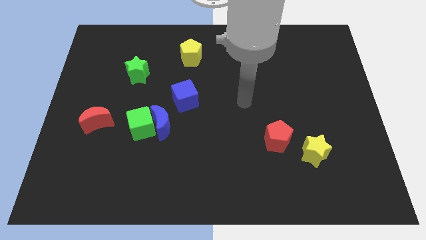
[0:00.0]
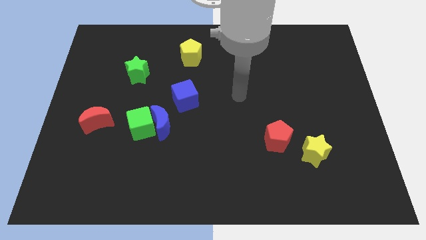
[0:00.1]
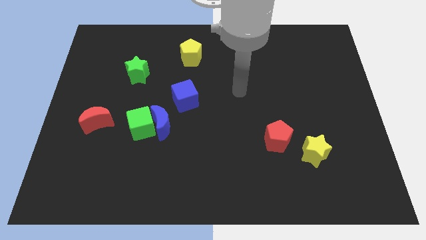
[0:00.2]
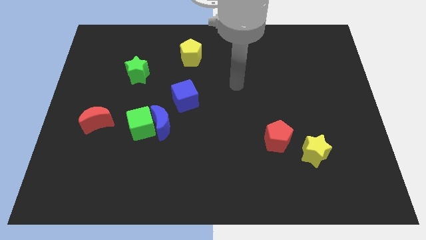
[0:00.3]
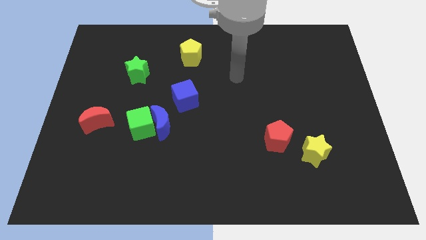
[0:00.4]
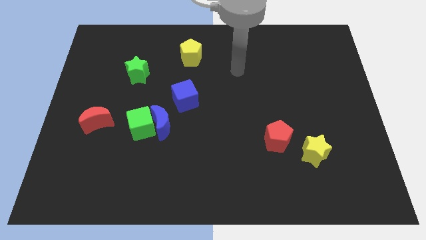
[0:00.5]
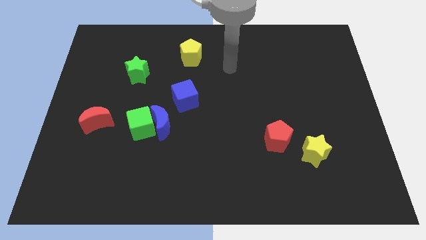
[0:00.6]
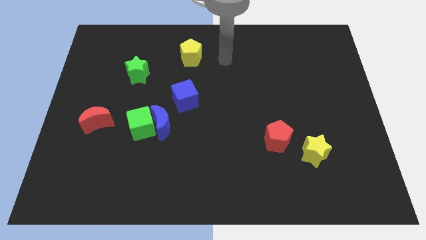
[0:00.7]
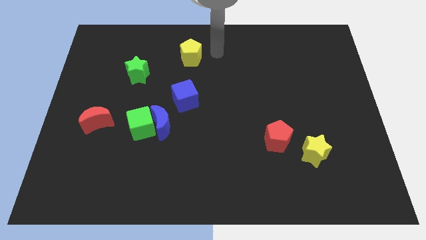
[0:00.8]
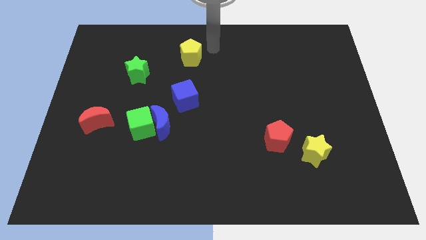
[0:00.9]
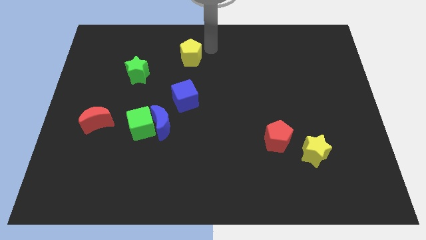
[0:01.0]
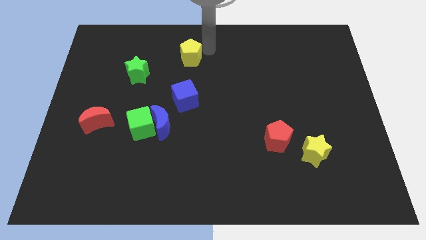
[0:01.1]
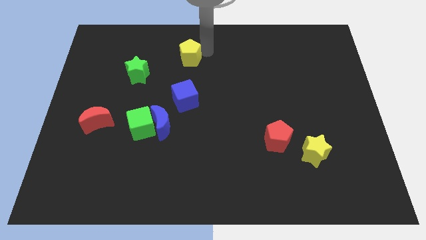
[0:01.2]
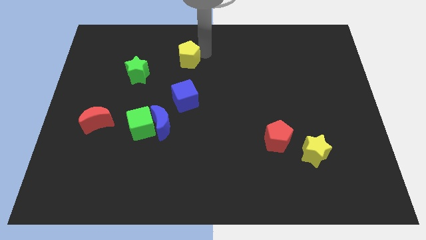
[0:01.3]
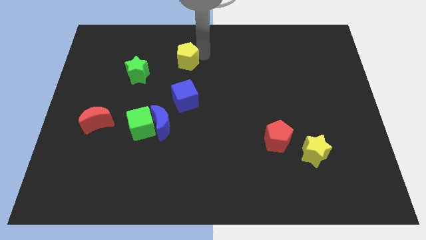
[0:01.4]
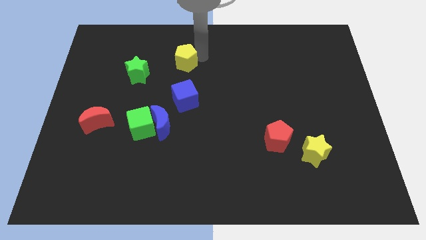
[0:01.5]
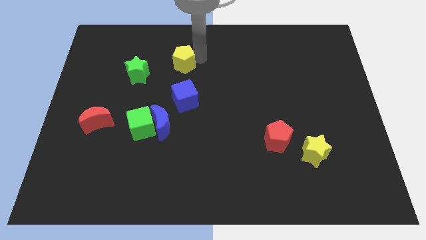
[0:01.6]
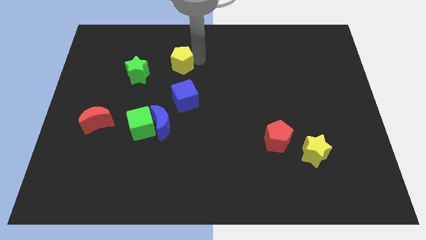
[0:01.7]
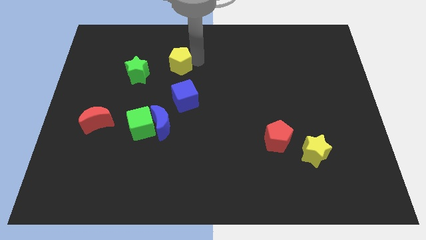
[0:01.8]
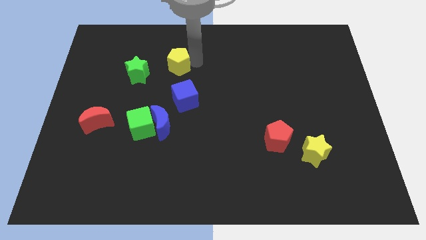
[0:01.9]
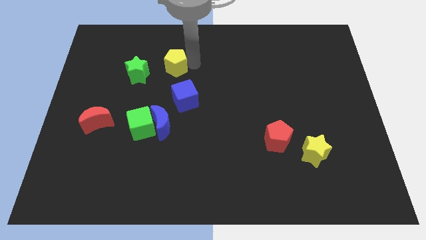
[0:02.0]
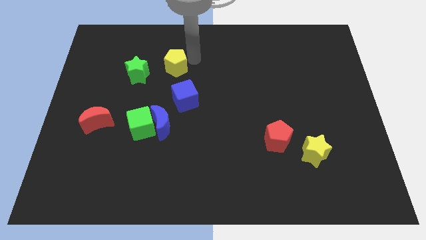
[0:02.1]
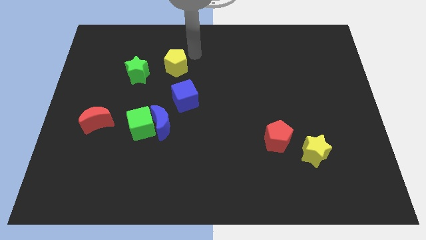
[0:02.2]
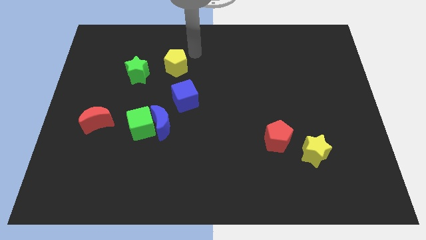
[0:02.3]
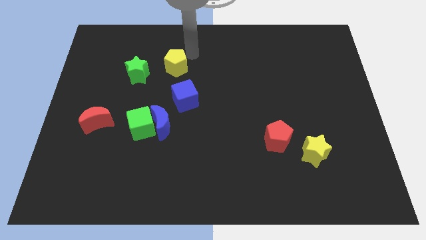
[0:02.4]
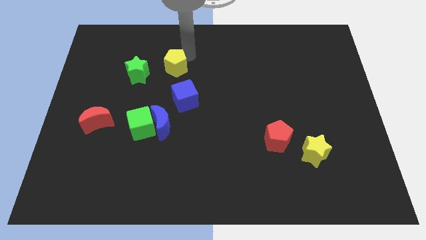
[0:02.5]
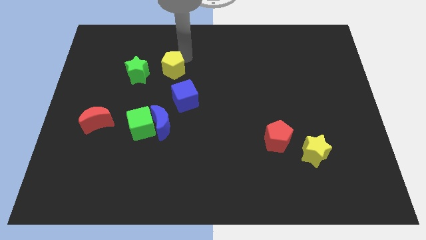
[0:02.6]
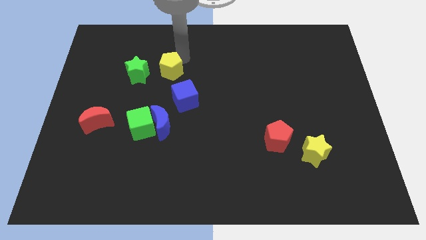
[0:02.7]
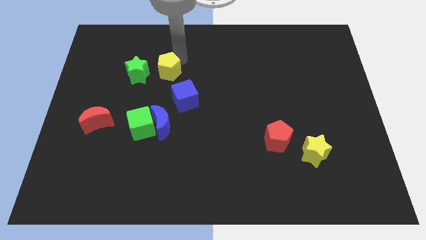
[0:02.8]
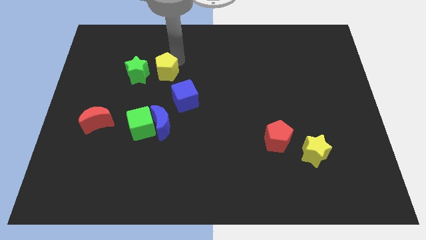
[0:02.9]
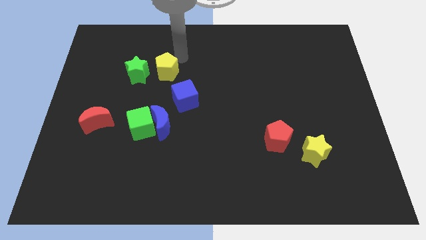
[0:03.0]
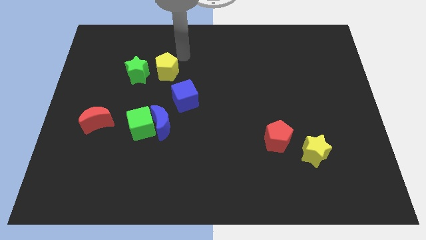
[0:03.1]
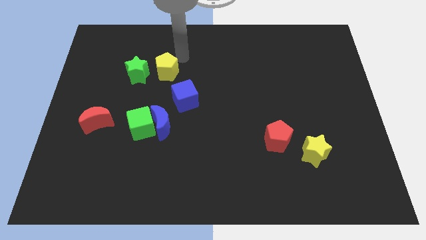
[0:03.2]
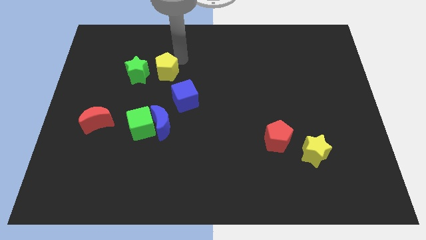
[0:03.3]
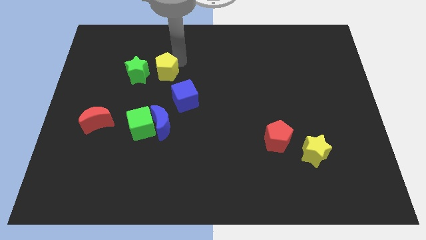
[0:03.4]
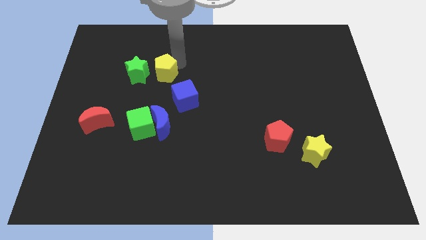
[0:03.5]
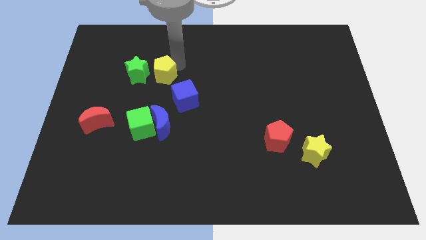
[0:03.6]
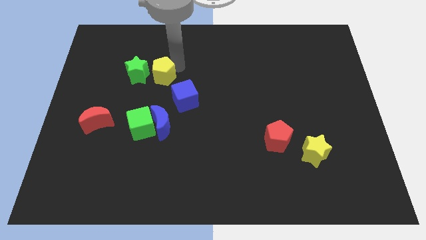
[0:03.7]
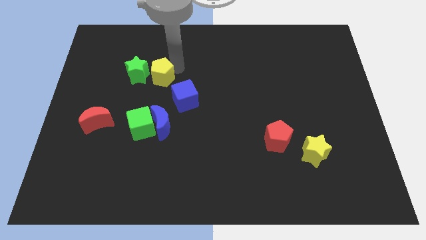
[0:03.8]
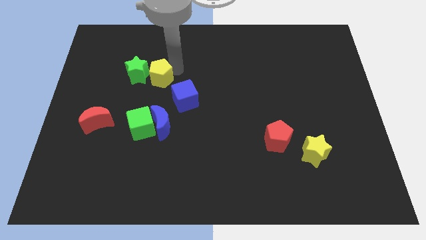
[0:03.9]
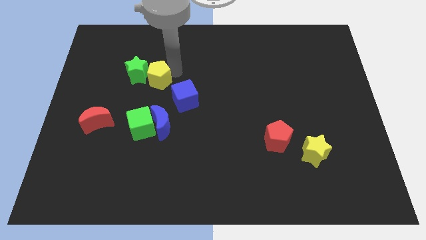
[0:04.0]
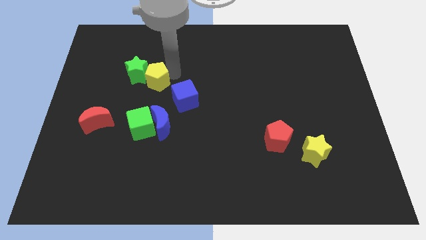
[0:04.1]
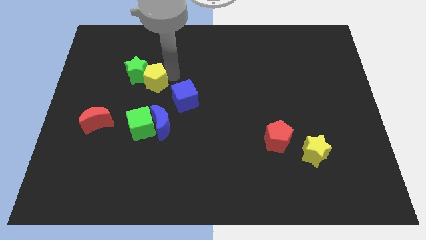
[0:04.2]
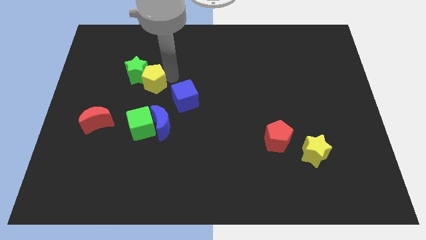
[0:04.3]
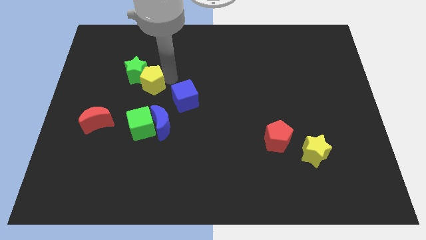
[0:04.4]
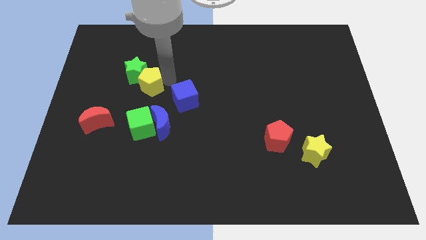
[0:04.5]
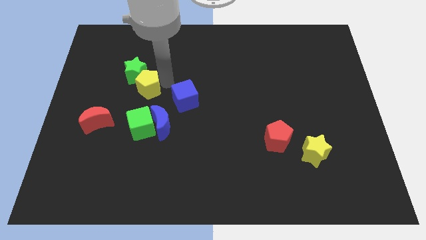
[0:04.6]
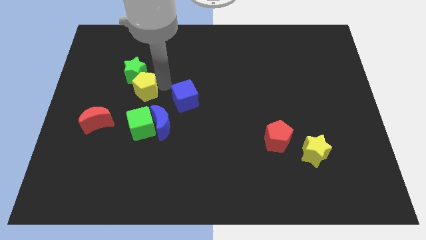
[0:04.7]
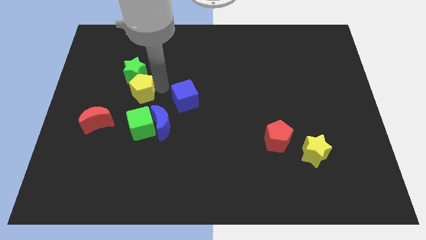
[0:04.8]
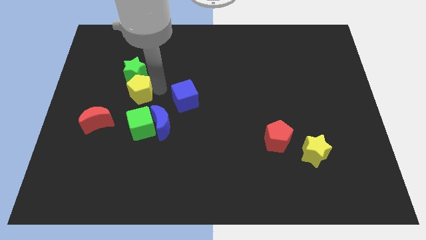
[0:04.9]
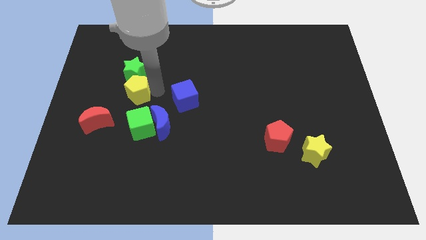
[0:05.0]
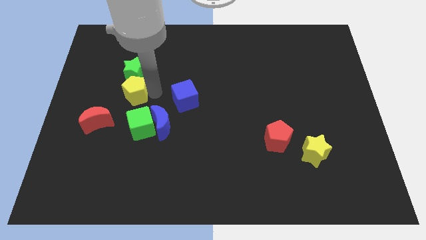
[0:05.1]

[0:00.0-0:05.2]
slide the yellow pentagon to the bottom left side of the green star

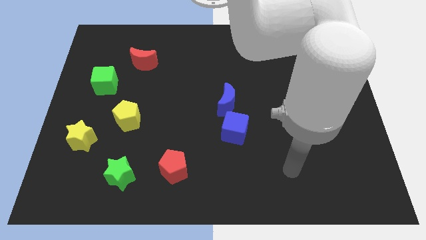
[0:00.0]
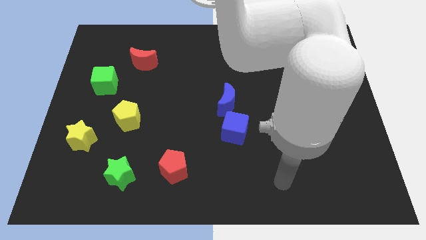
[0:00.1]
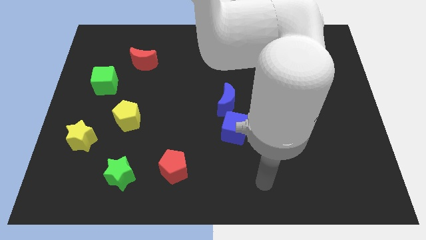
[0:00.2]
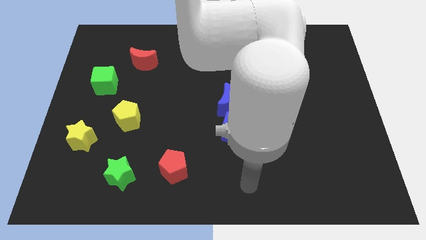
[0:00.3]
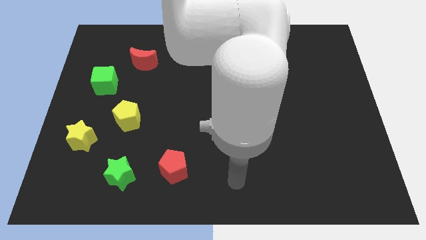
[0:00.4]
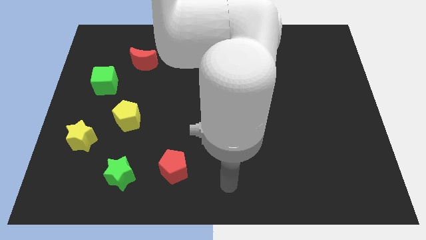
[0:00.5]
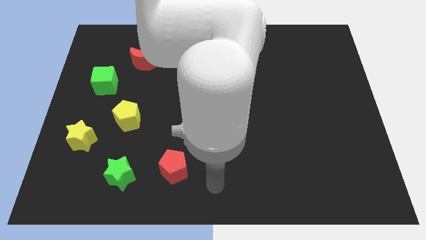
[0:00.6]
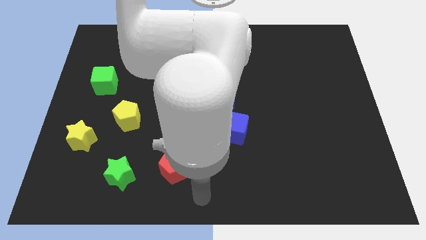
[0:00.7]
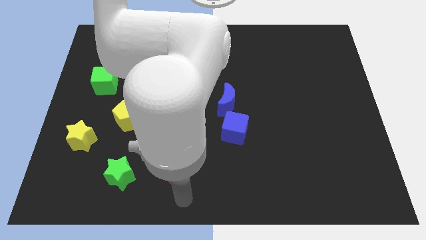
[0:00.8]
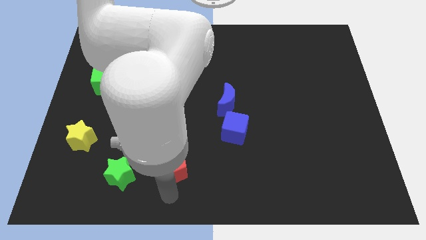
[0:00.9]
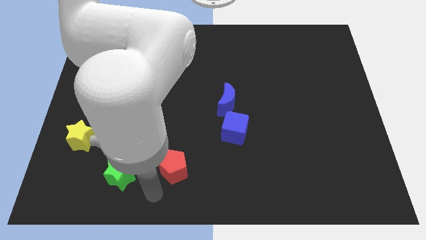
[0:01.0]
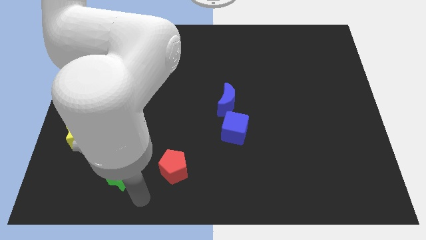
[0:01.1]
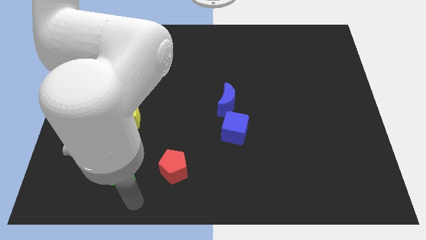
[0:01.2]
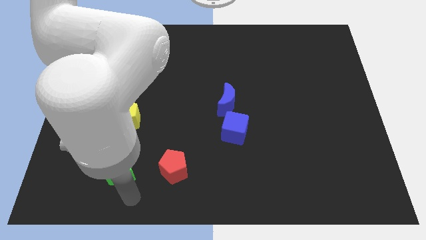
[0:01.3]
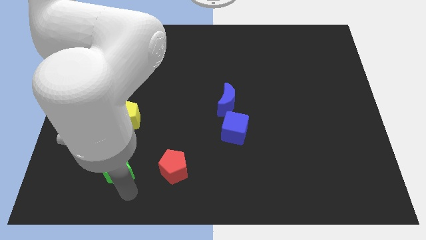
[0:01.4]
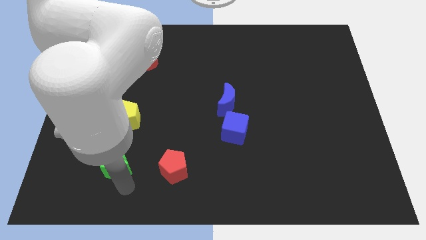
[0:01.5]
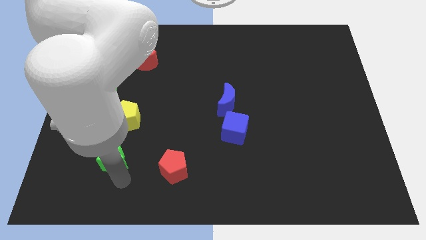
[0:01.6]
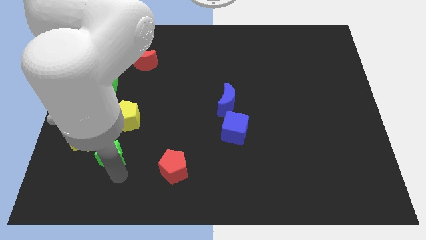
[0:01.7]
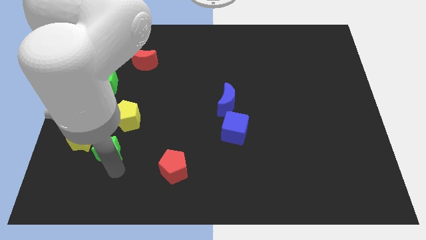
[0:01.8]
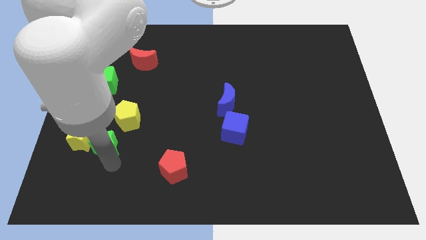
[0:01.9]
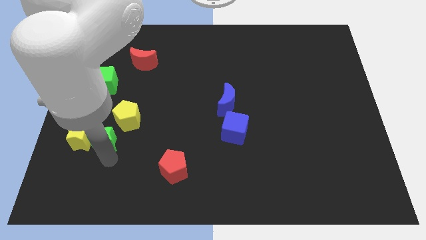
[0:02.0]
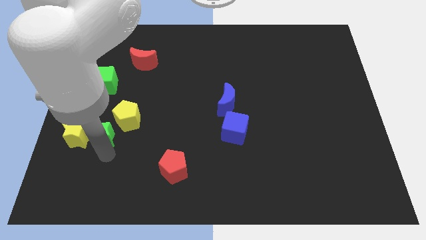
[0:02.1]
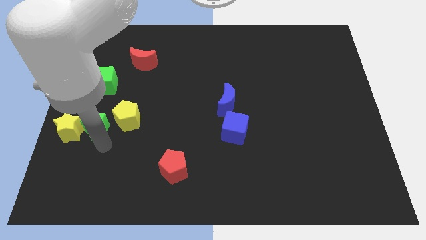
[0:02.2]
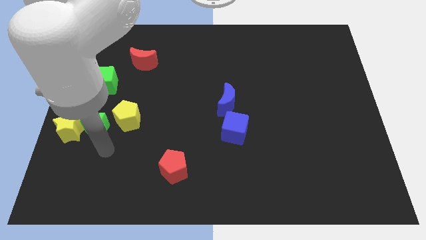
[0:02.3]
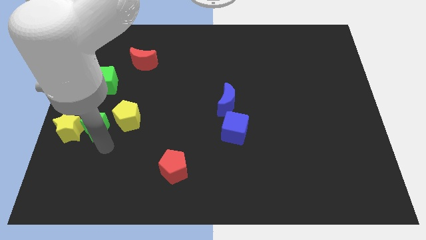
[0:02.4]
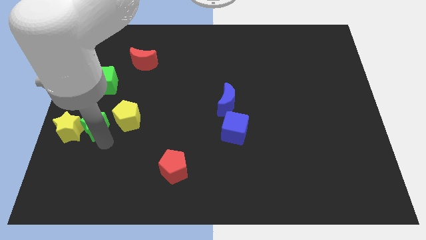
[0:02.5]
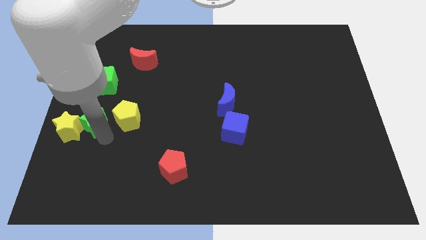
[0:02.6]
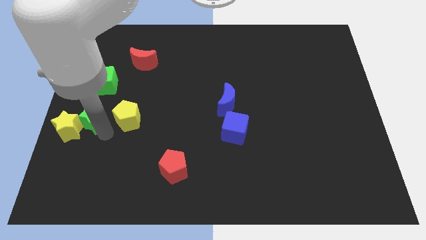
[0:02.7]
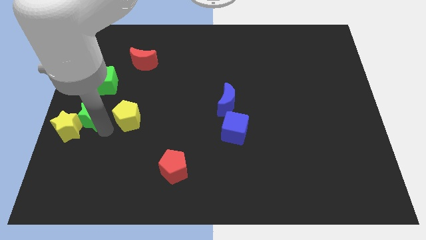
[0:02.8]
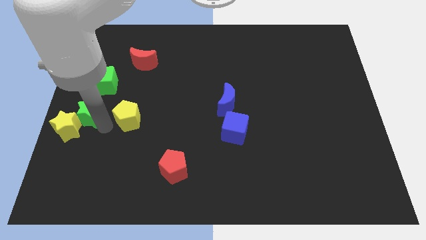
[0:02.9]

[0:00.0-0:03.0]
push the green star to the top side of the yellow star
